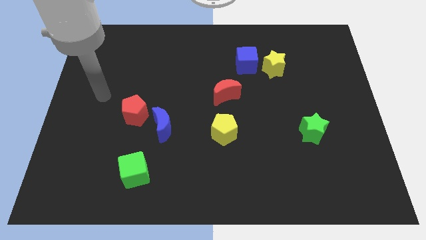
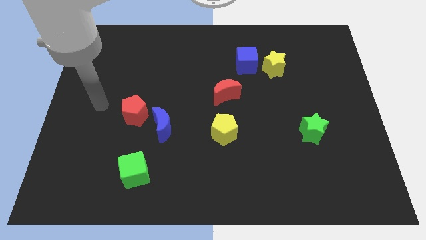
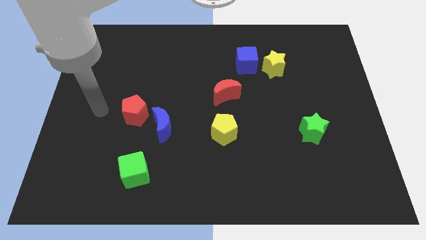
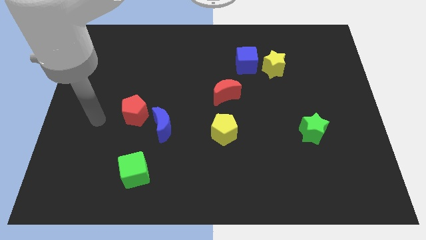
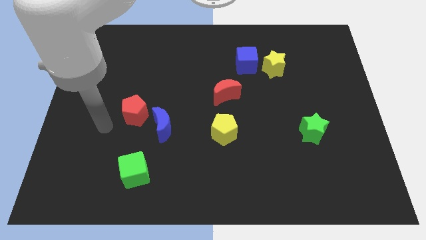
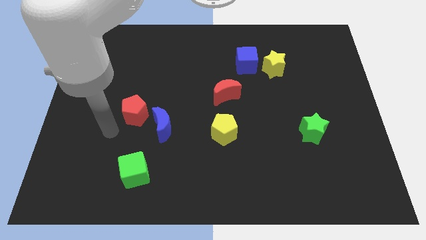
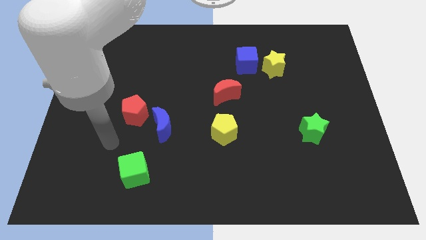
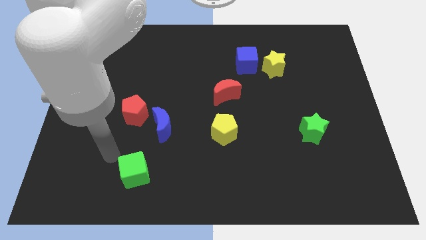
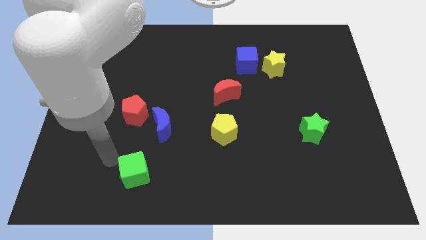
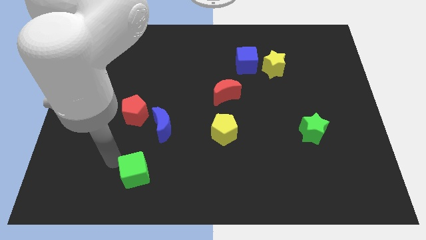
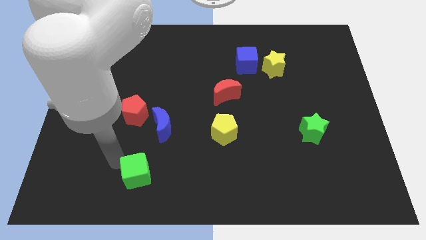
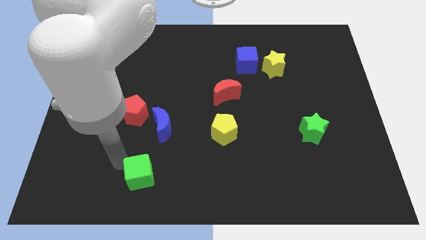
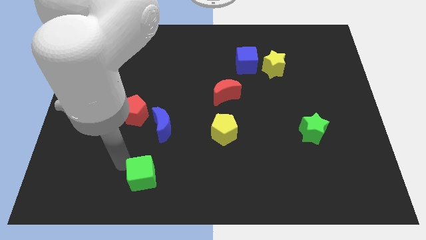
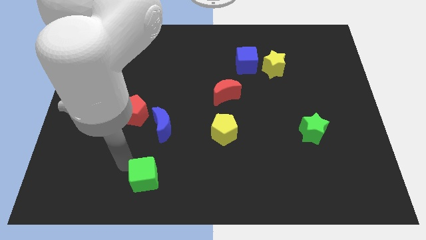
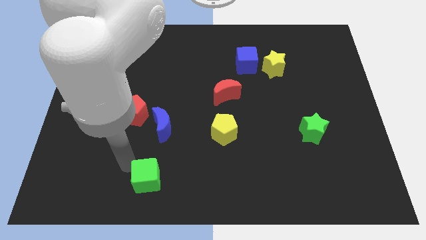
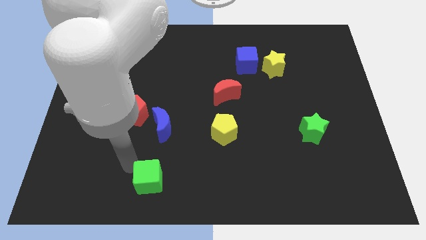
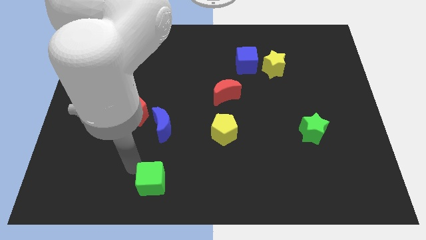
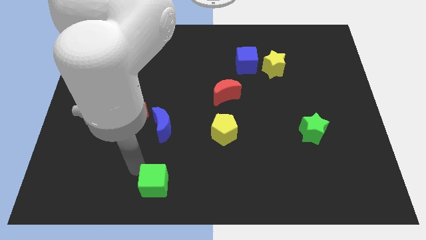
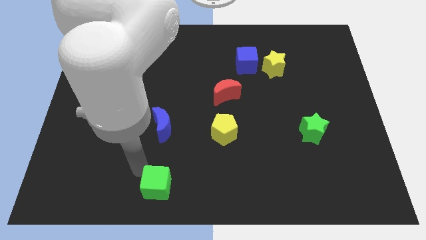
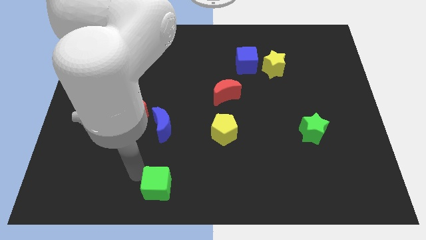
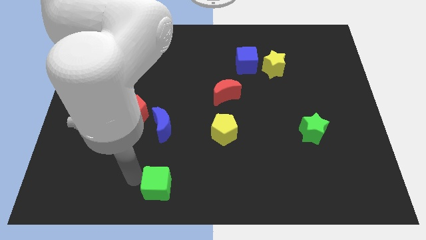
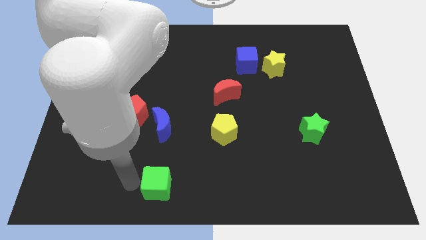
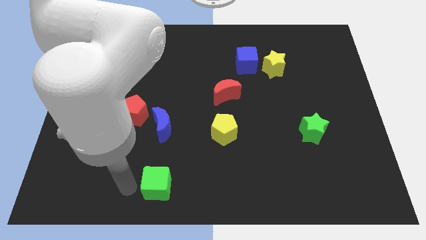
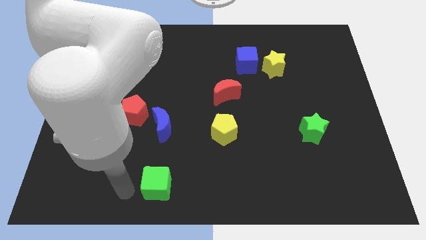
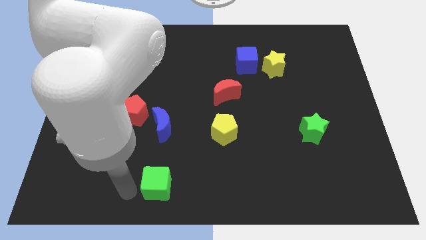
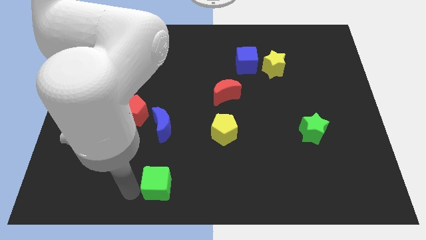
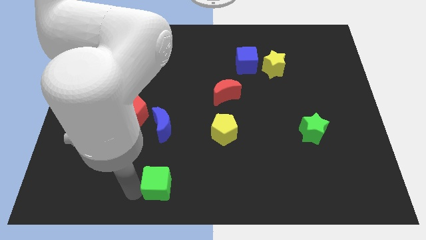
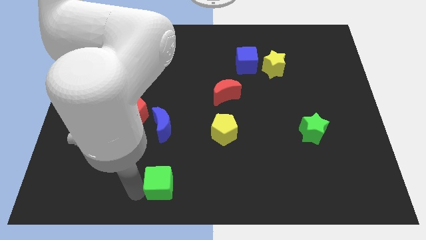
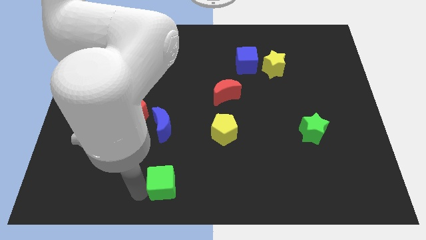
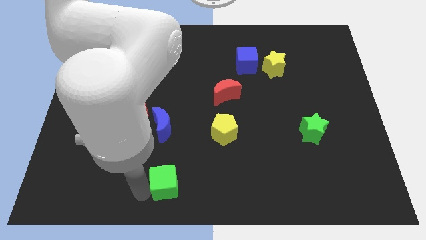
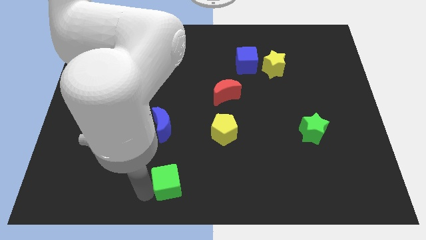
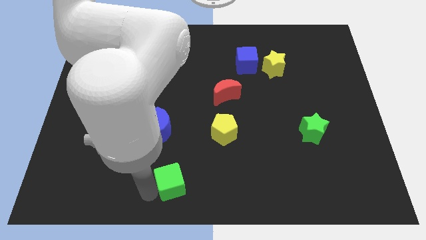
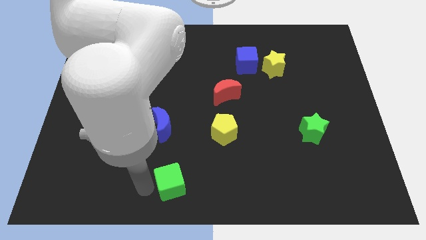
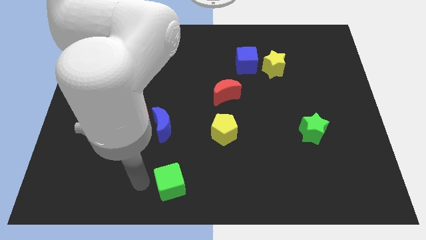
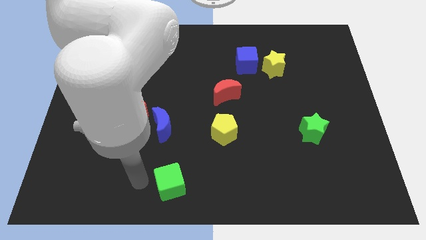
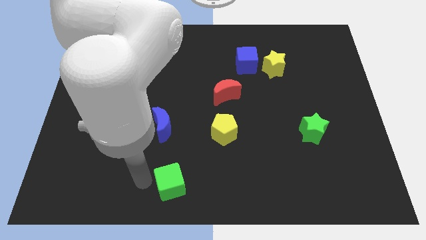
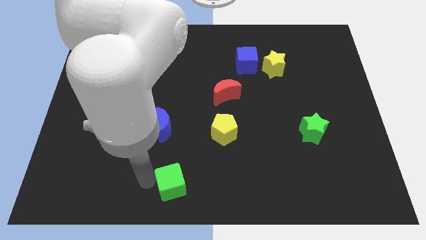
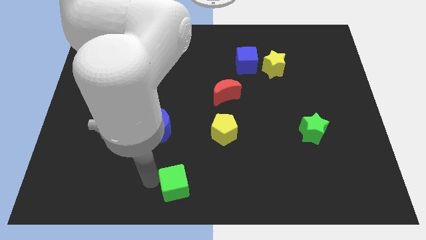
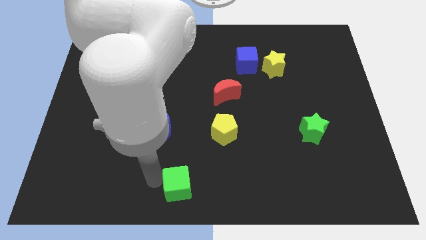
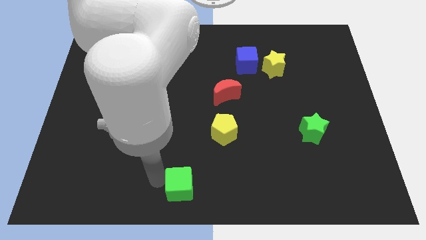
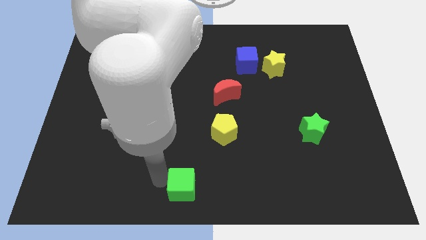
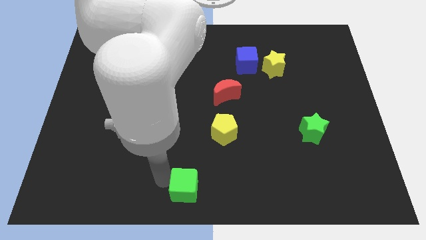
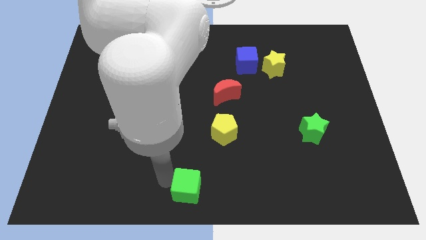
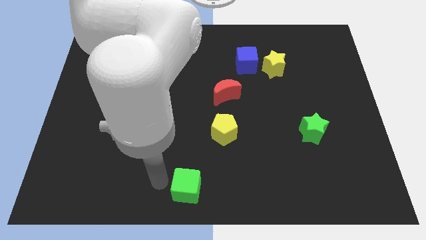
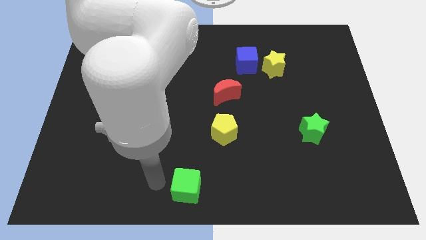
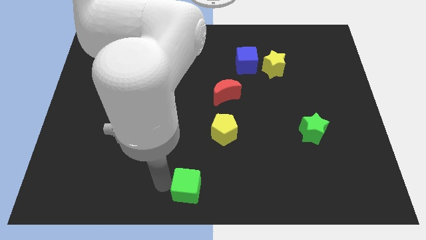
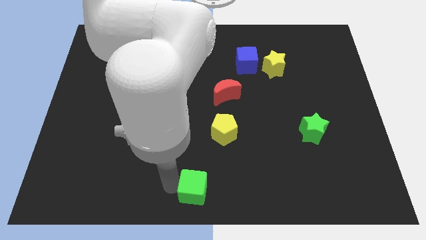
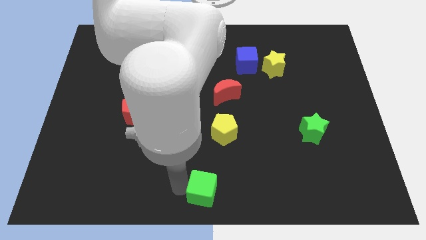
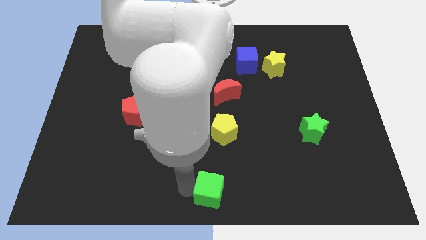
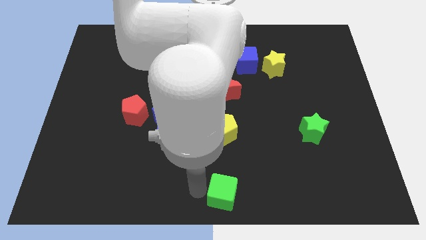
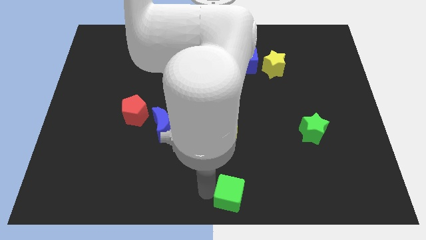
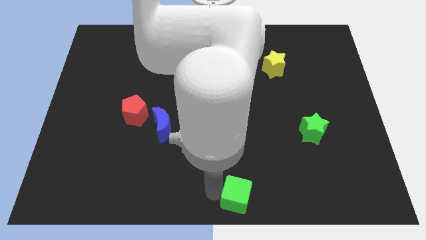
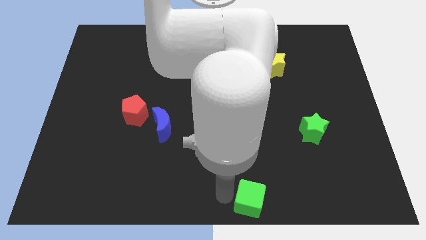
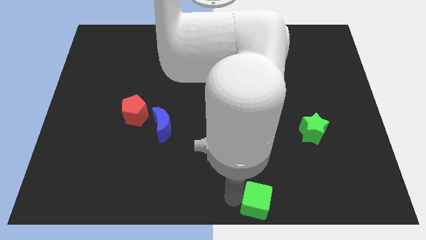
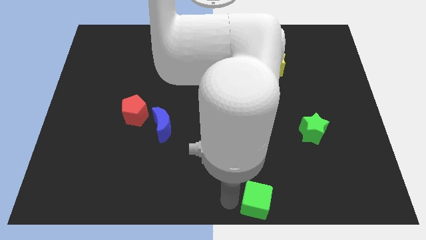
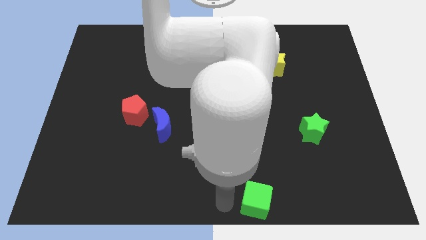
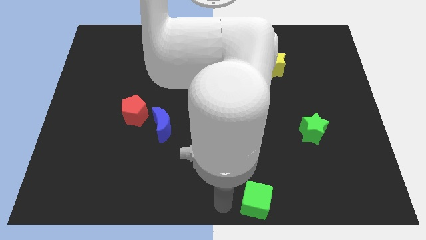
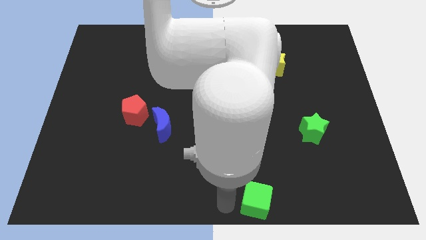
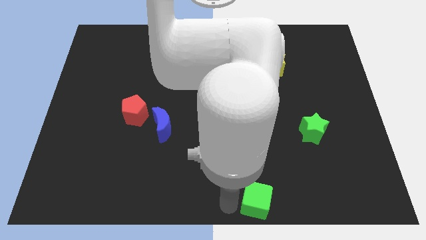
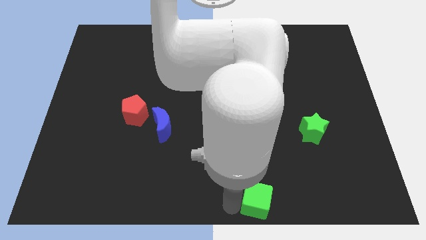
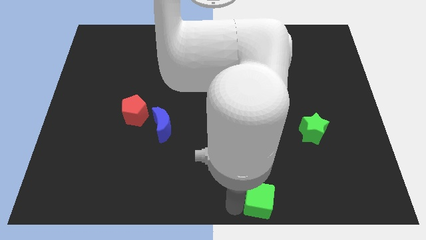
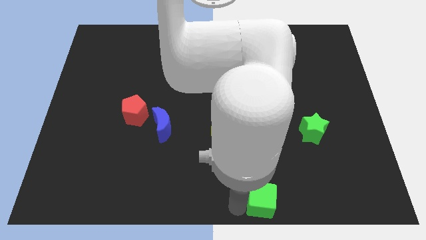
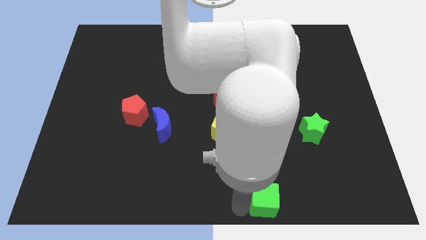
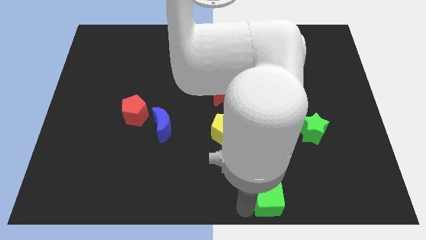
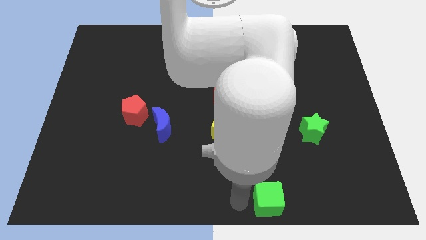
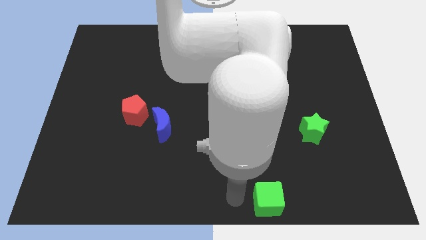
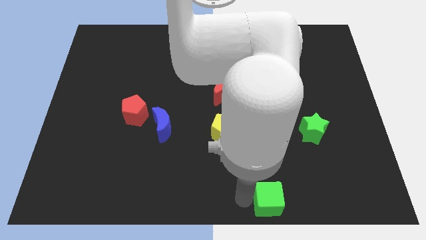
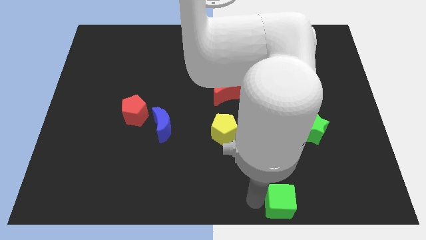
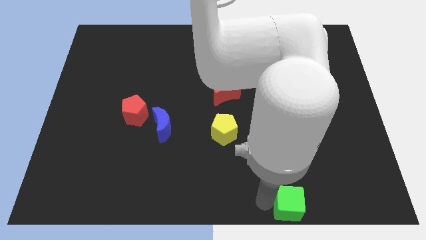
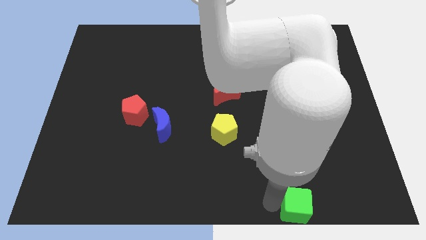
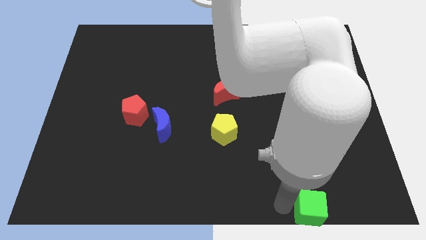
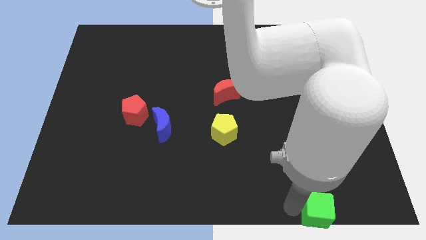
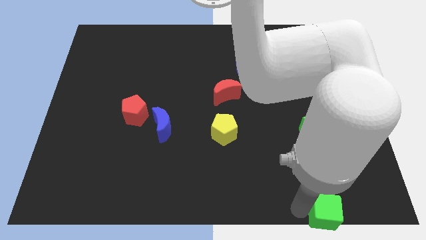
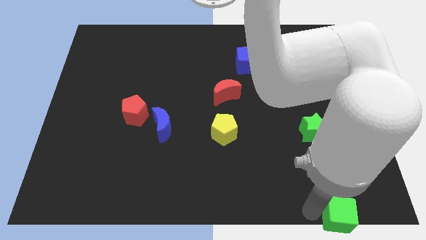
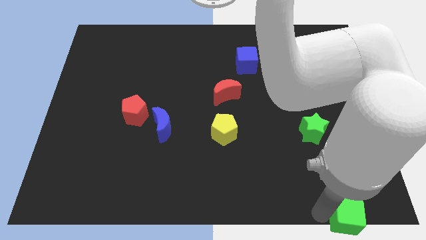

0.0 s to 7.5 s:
move the green cube to the bottom right

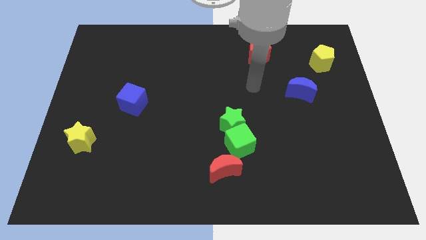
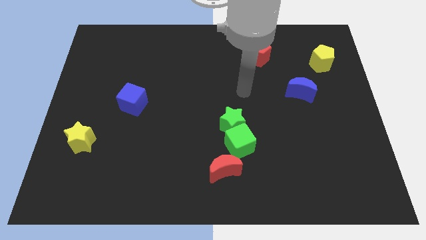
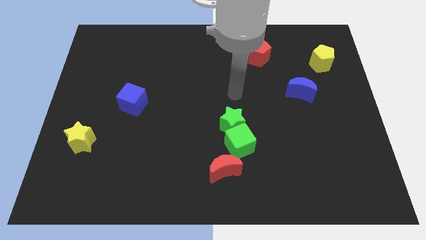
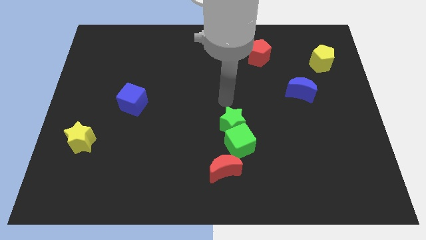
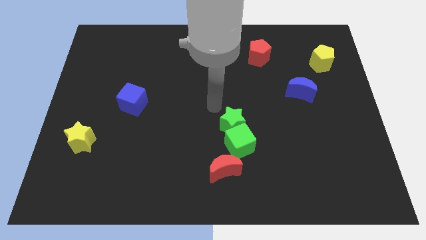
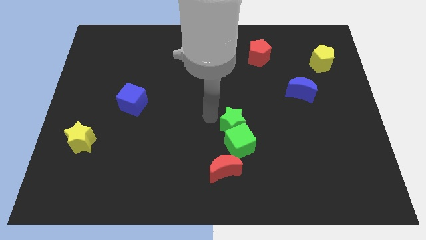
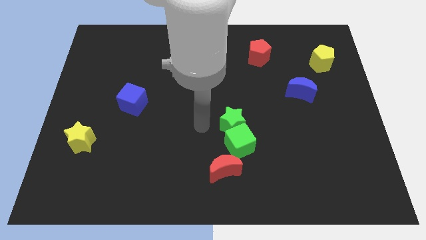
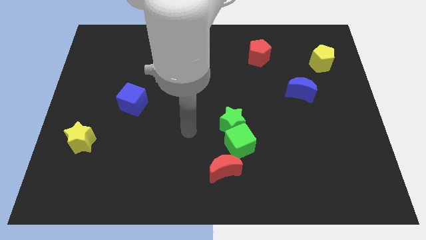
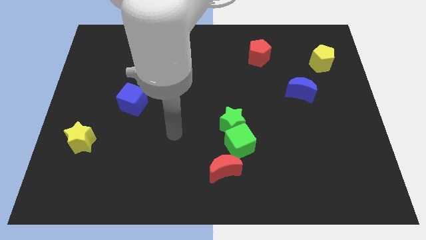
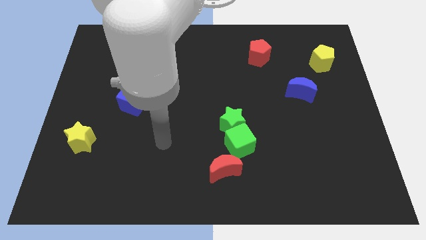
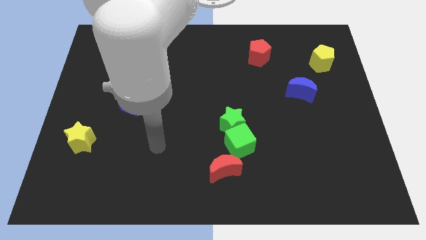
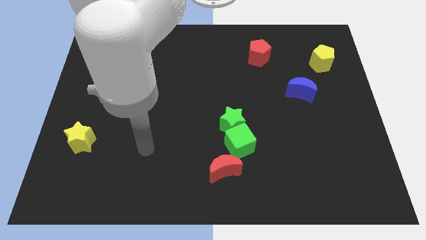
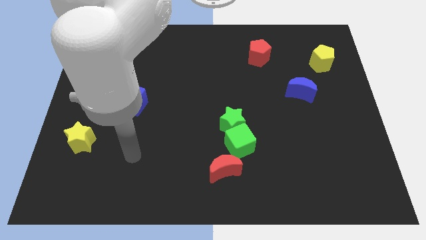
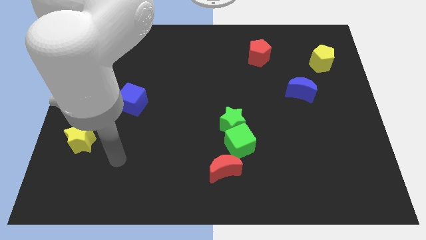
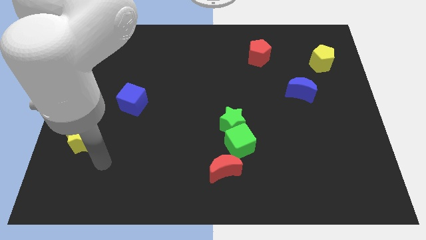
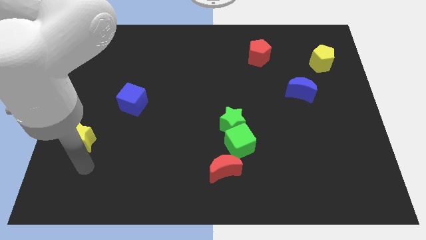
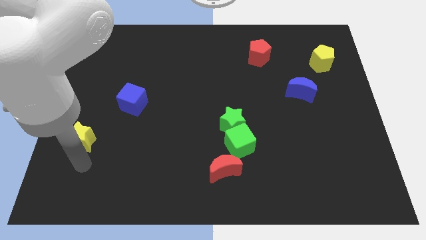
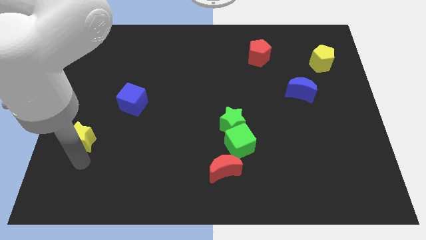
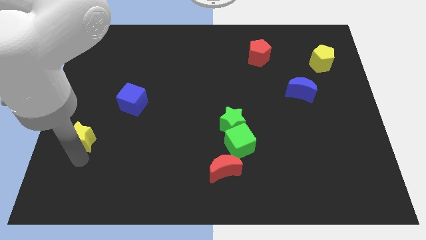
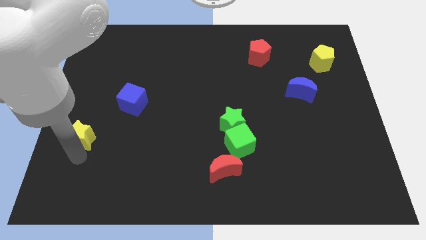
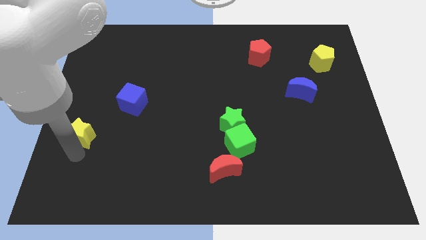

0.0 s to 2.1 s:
move the yellow star to the center left
